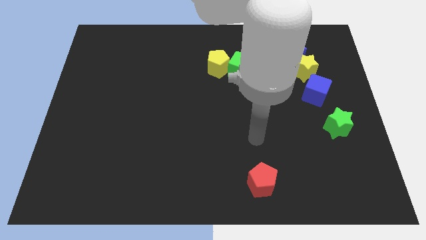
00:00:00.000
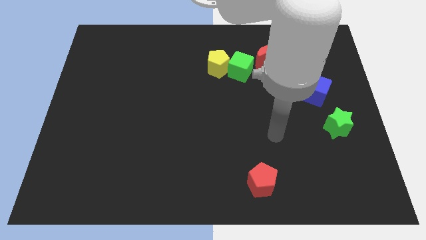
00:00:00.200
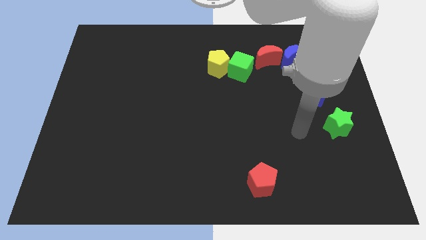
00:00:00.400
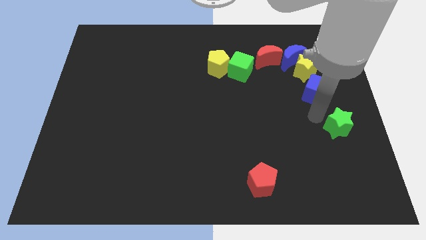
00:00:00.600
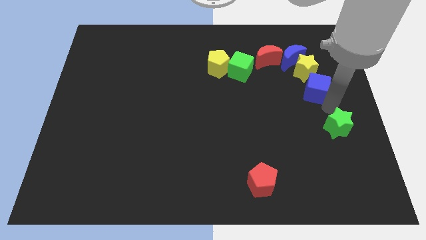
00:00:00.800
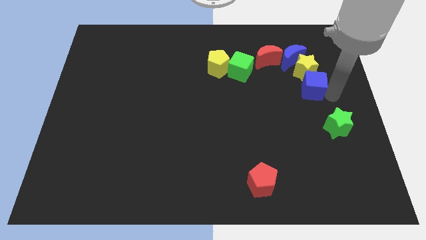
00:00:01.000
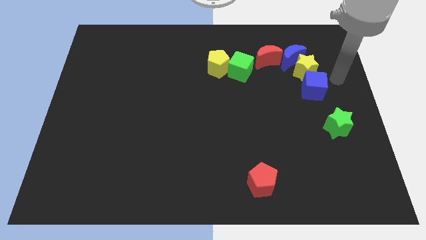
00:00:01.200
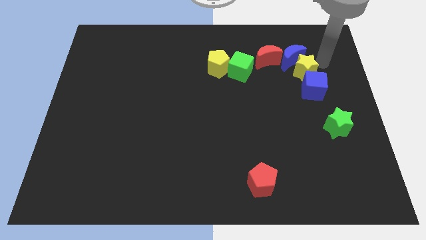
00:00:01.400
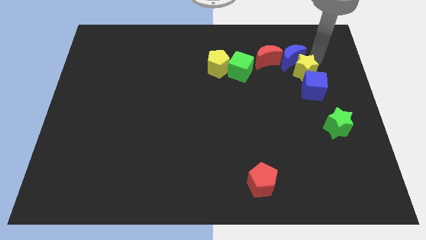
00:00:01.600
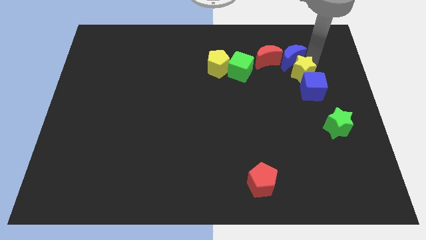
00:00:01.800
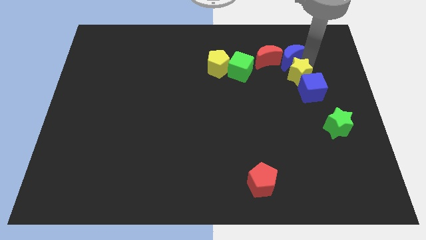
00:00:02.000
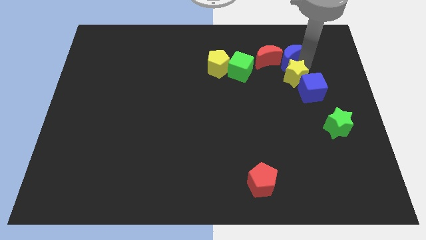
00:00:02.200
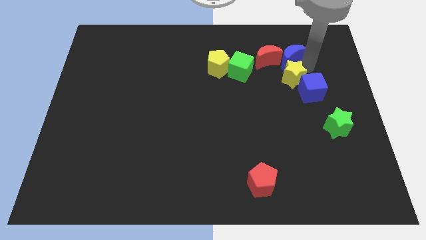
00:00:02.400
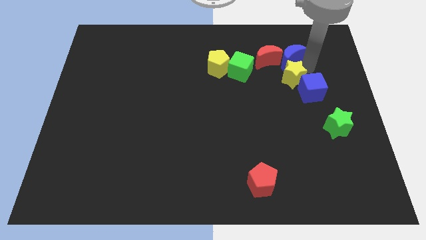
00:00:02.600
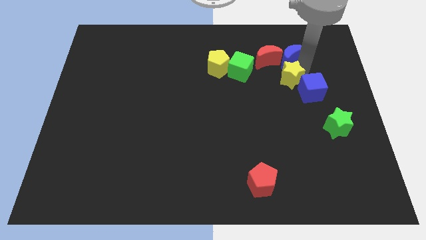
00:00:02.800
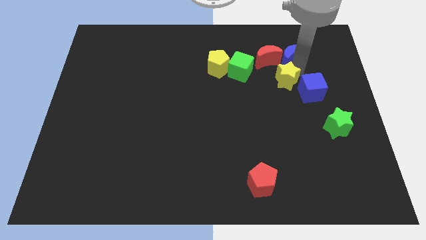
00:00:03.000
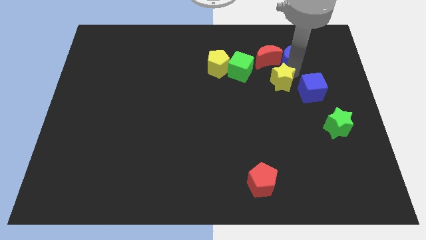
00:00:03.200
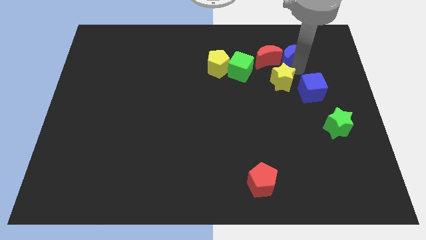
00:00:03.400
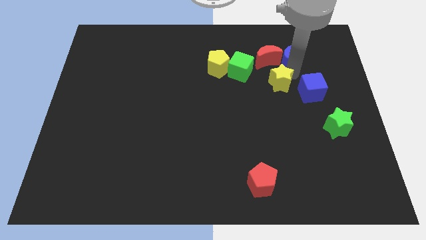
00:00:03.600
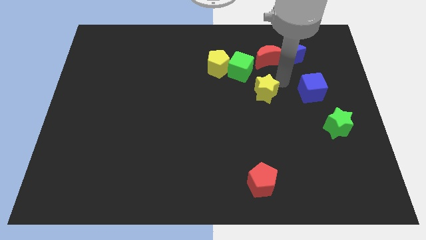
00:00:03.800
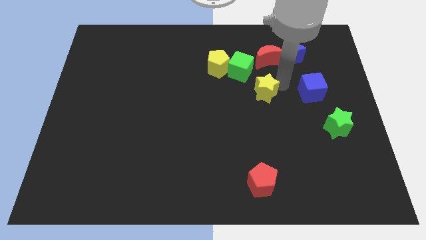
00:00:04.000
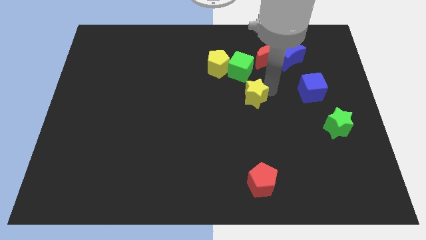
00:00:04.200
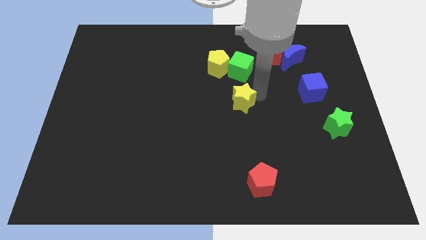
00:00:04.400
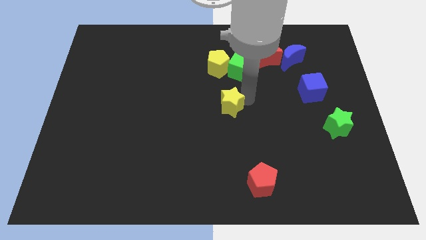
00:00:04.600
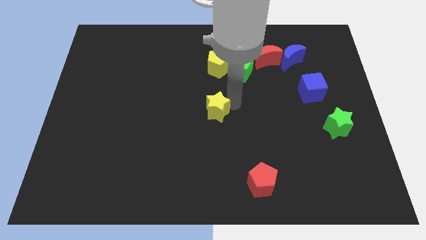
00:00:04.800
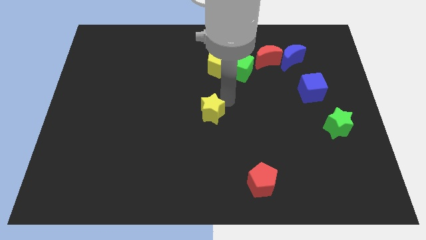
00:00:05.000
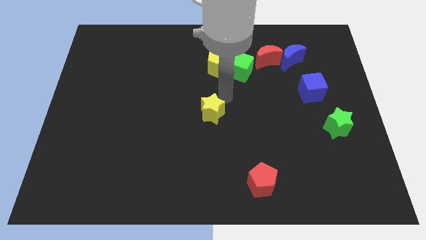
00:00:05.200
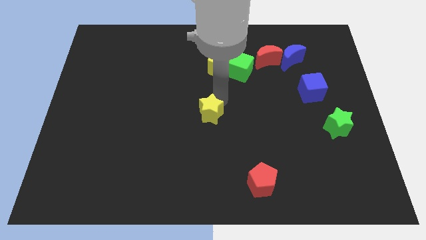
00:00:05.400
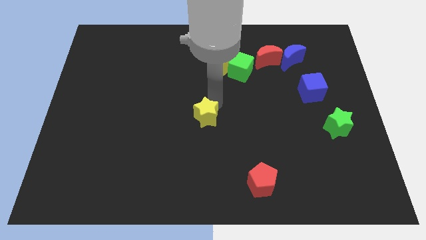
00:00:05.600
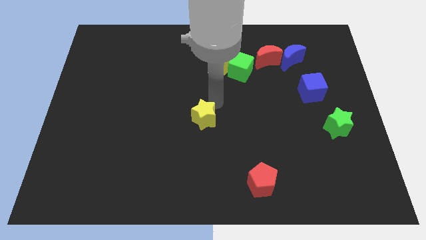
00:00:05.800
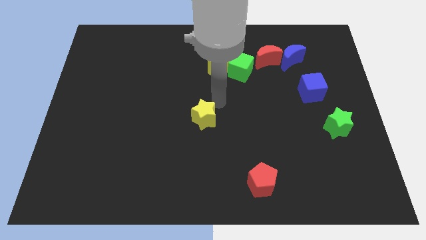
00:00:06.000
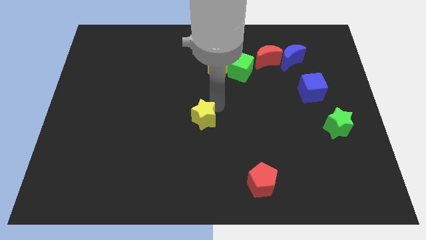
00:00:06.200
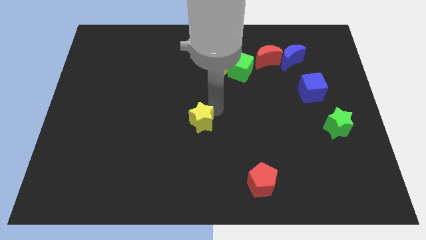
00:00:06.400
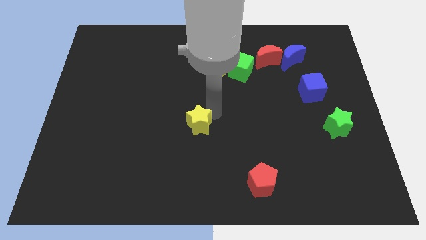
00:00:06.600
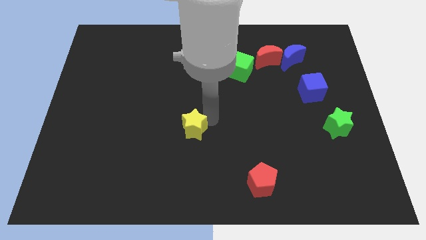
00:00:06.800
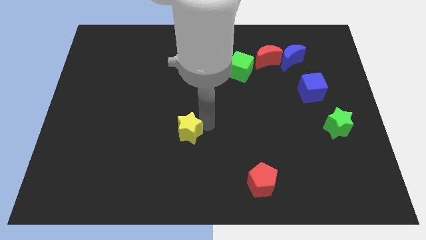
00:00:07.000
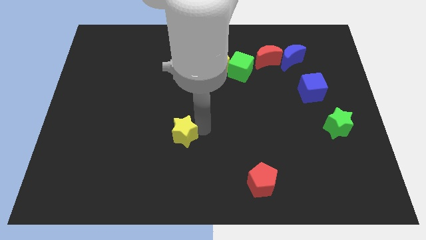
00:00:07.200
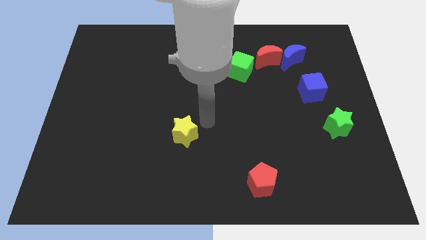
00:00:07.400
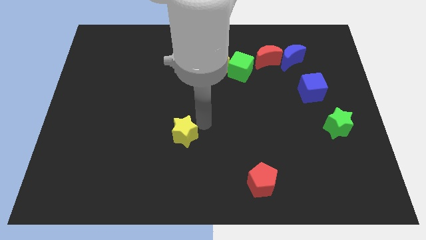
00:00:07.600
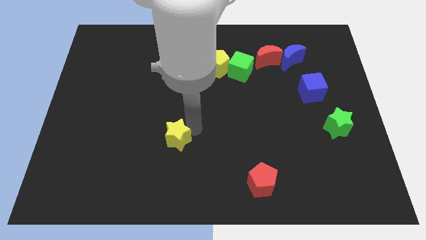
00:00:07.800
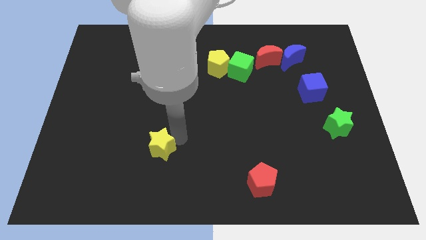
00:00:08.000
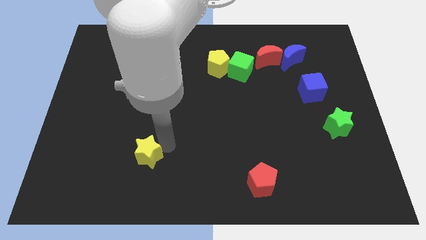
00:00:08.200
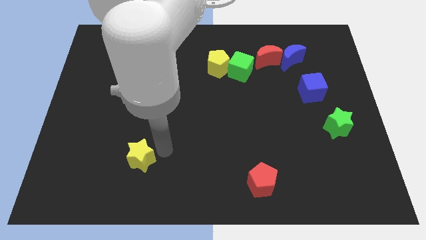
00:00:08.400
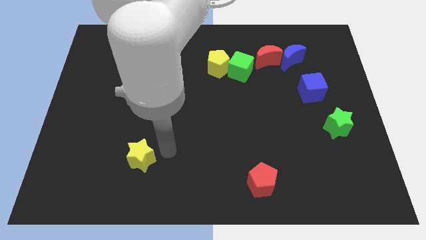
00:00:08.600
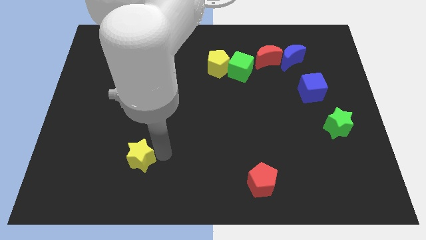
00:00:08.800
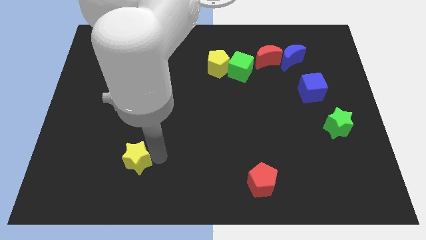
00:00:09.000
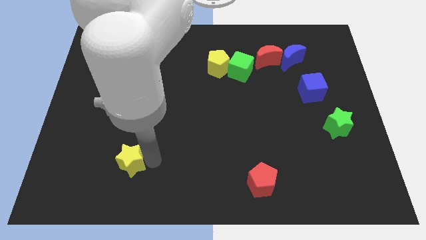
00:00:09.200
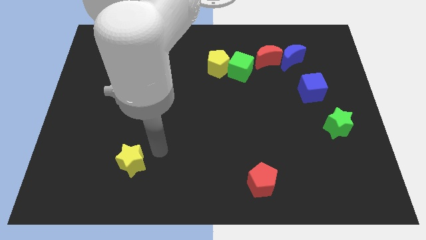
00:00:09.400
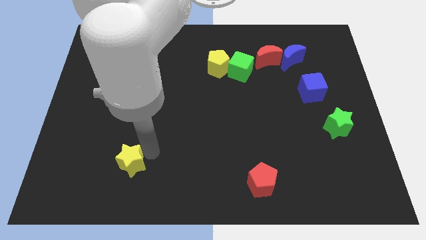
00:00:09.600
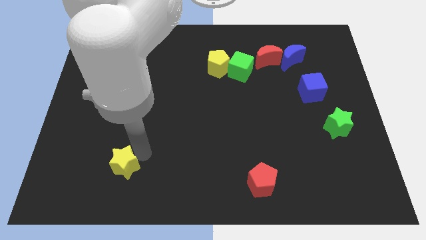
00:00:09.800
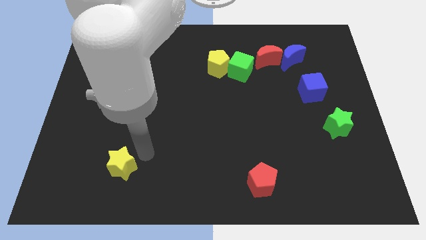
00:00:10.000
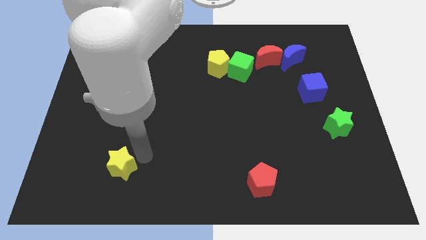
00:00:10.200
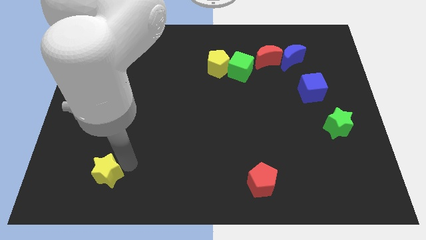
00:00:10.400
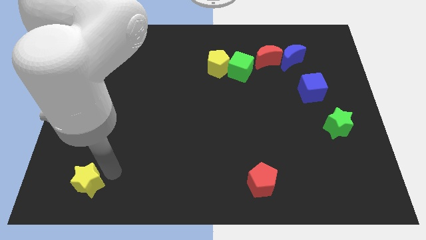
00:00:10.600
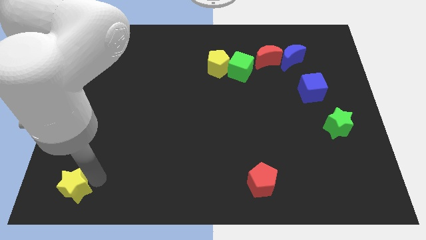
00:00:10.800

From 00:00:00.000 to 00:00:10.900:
put the yellow star to the bottom left

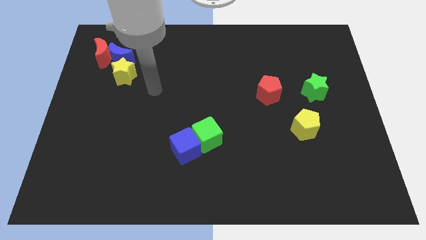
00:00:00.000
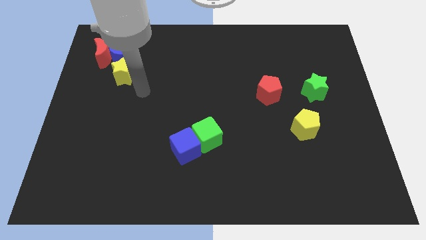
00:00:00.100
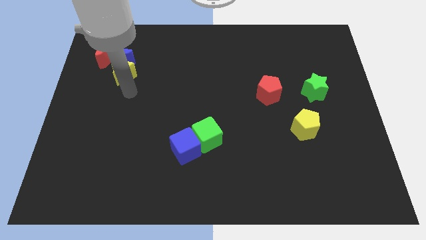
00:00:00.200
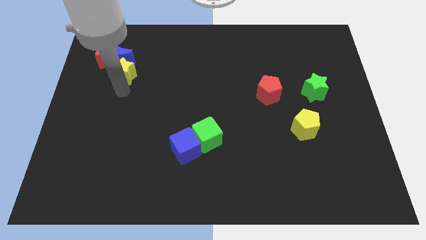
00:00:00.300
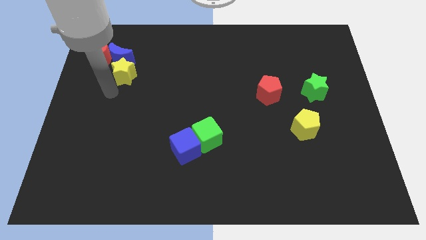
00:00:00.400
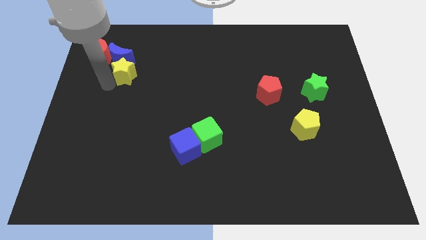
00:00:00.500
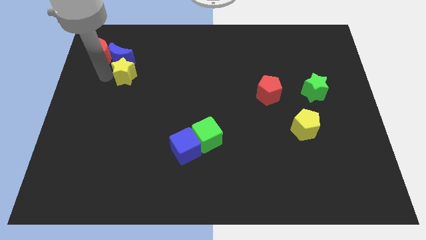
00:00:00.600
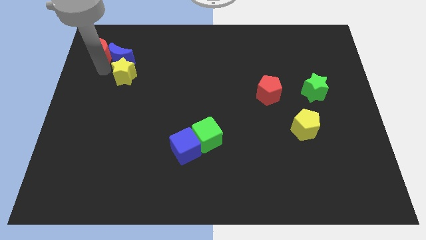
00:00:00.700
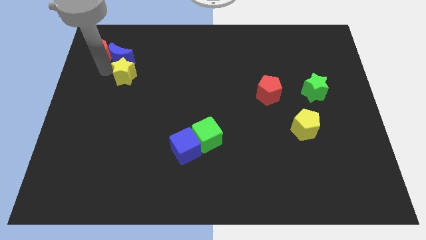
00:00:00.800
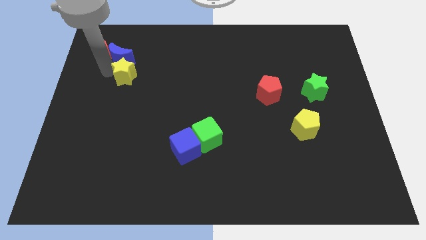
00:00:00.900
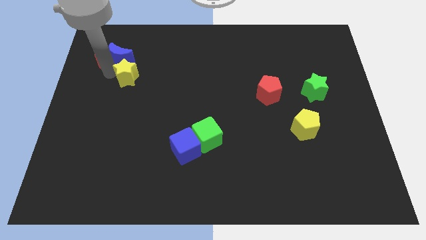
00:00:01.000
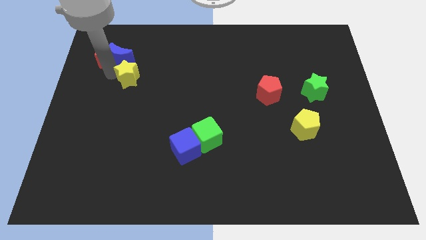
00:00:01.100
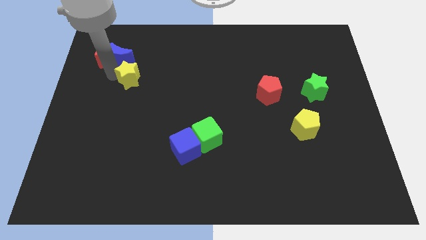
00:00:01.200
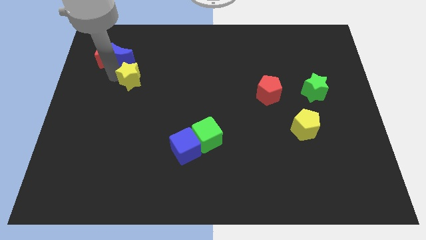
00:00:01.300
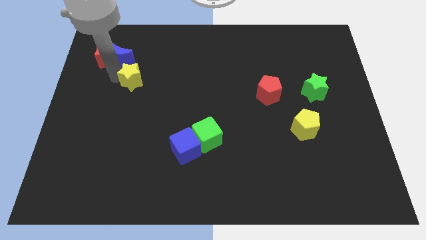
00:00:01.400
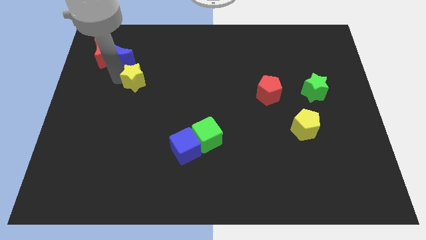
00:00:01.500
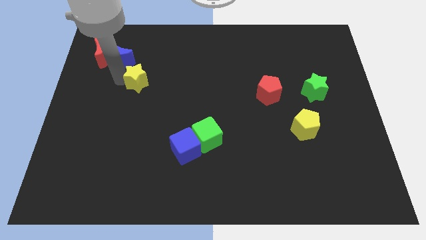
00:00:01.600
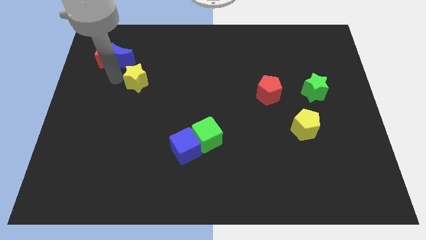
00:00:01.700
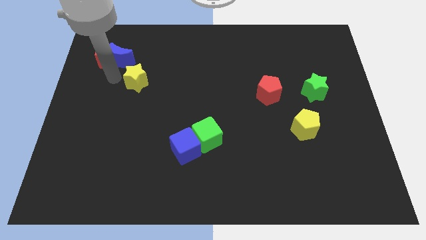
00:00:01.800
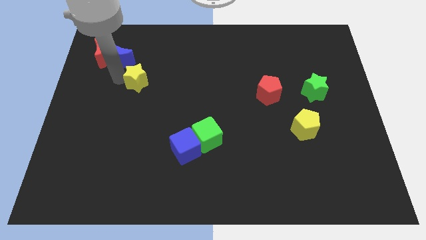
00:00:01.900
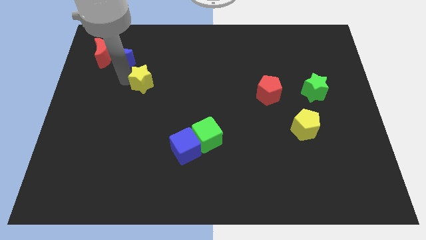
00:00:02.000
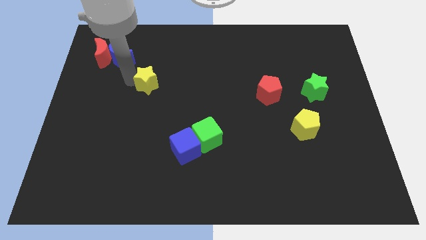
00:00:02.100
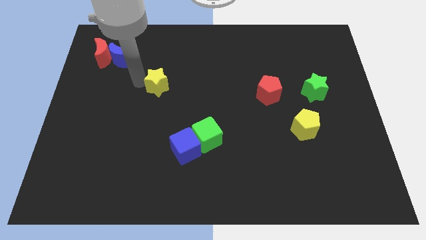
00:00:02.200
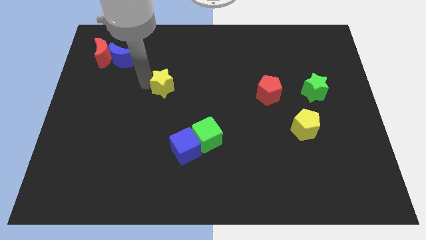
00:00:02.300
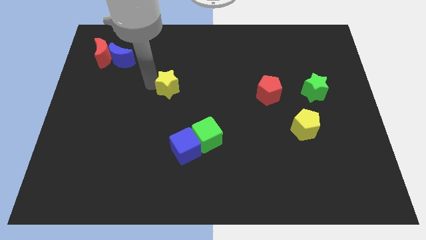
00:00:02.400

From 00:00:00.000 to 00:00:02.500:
put the yellow star to the middle
